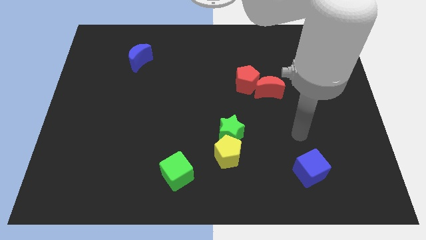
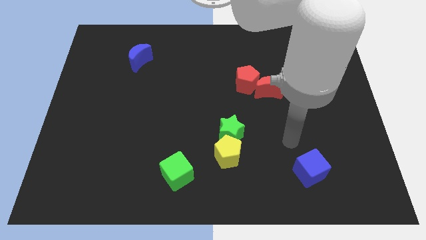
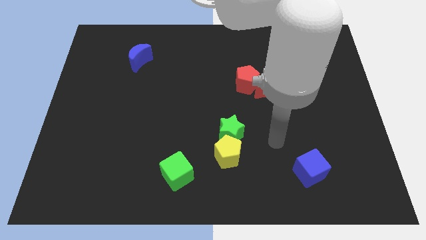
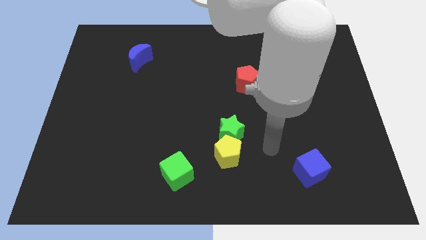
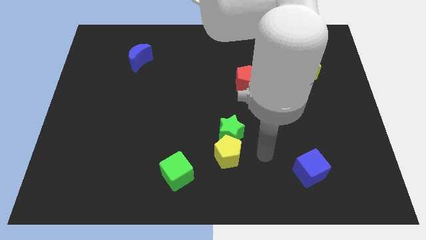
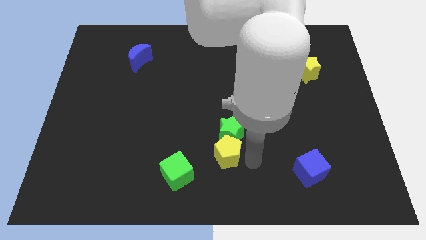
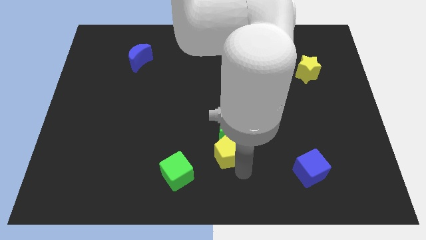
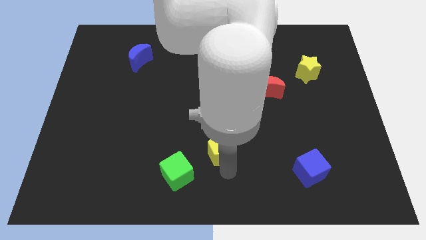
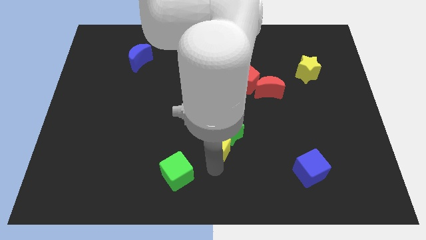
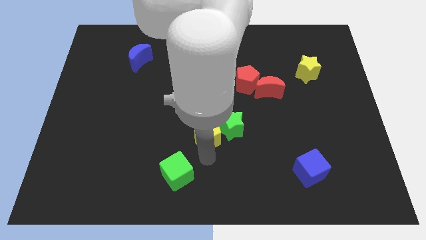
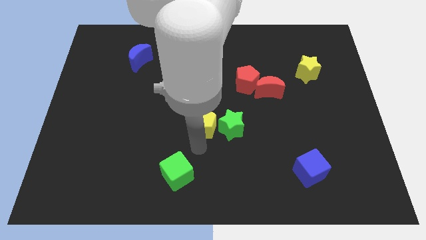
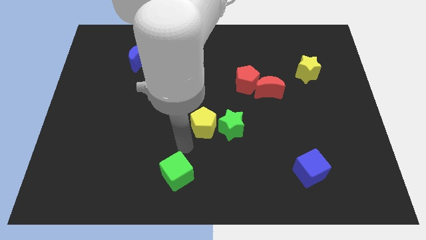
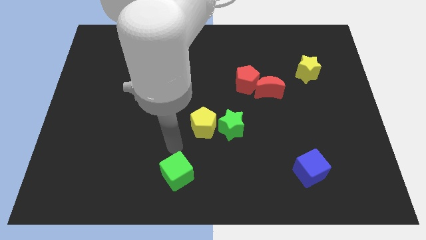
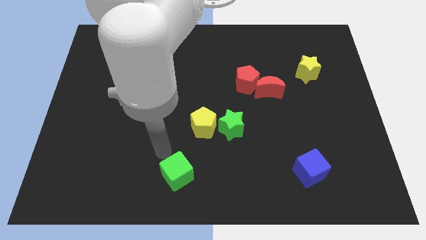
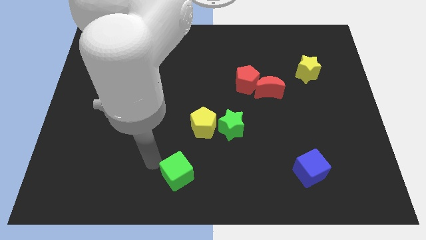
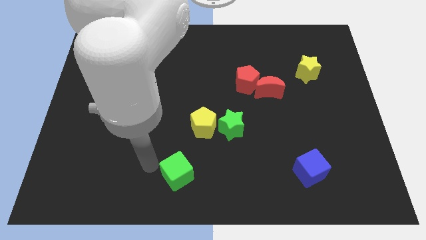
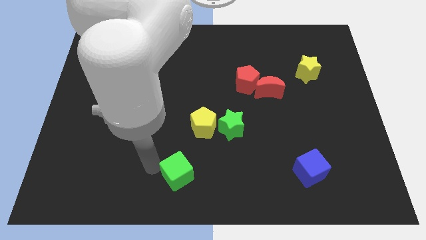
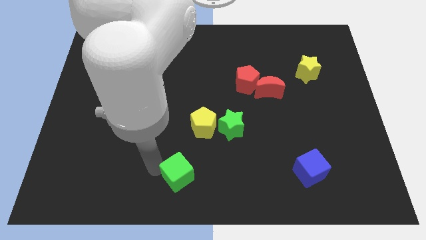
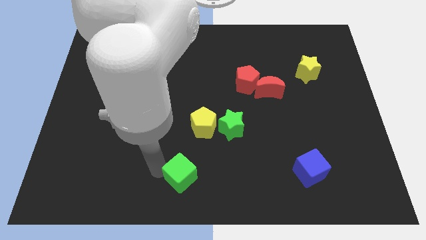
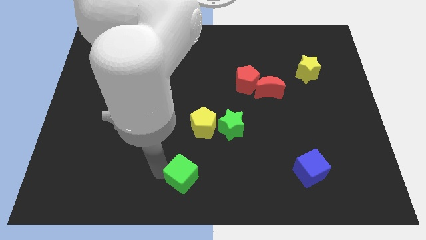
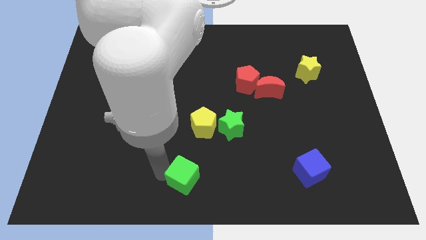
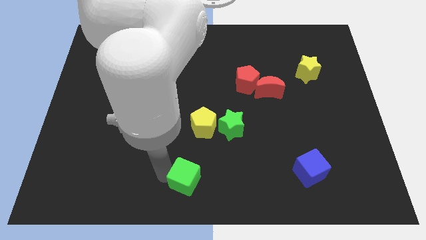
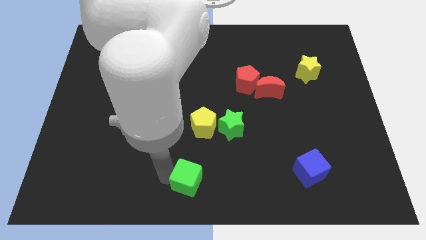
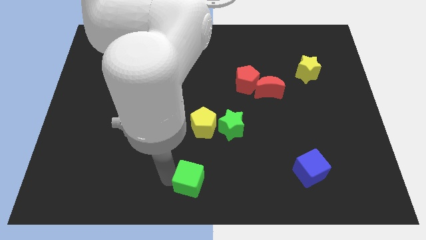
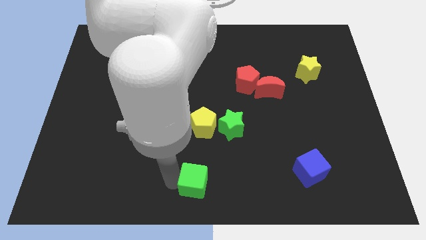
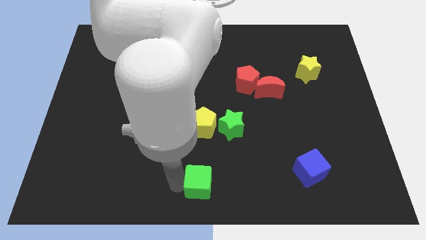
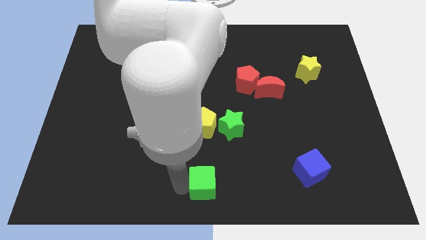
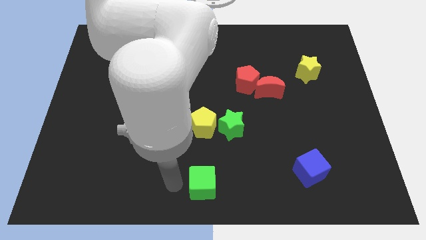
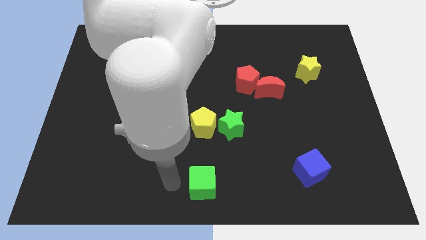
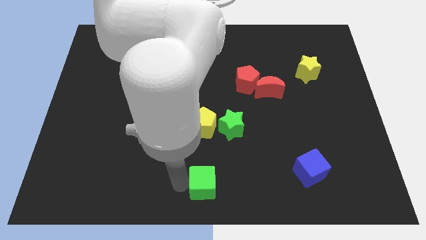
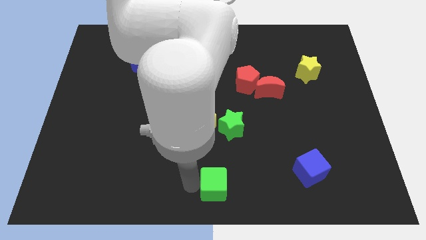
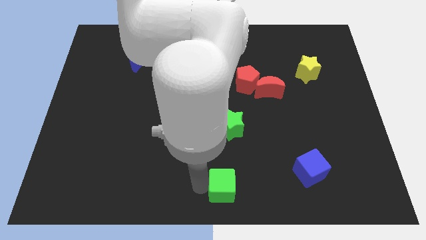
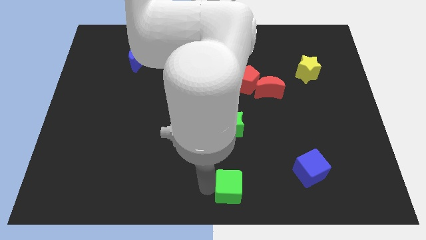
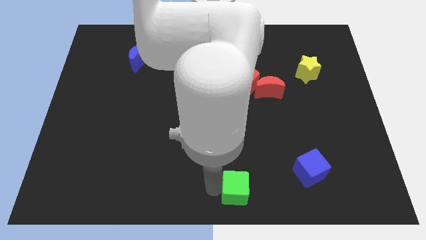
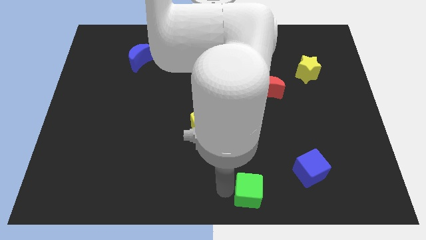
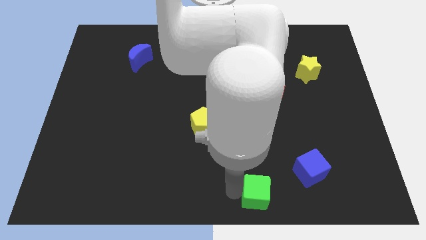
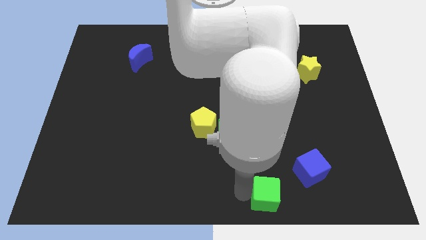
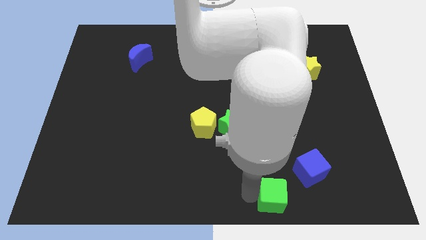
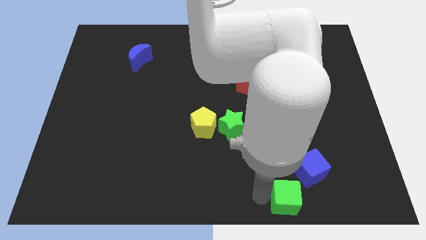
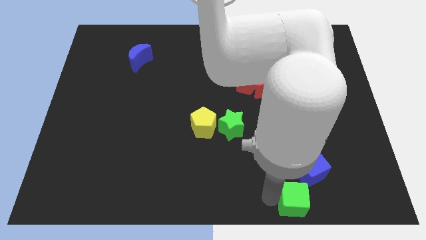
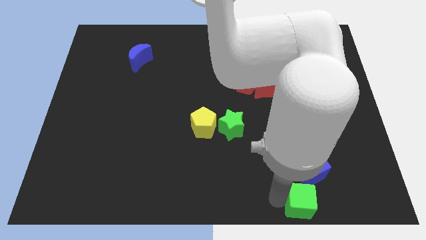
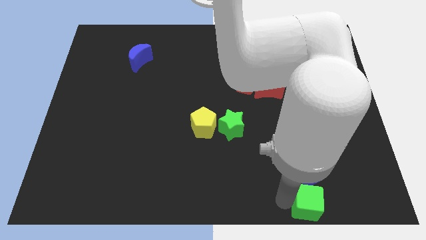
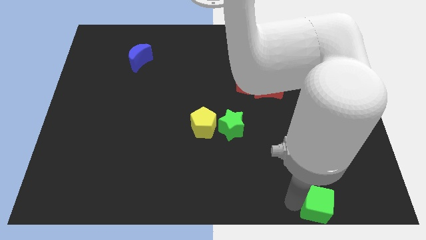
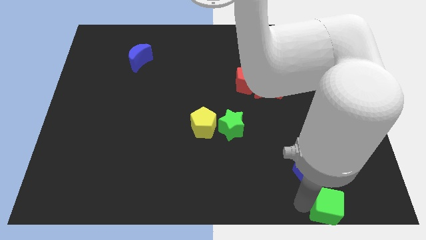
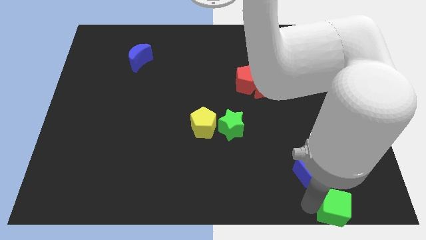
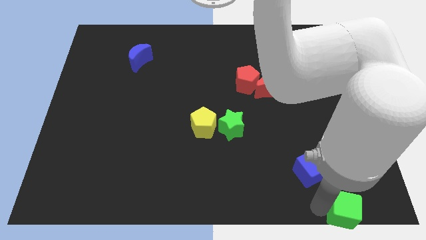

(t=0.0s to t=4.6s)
slide the green cube to the bottom right corner

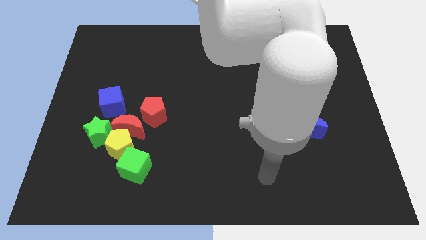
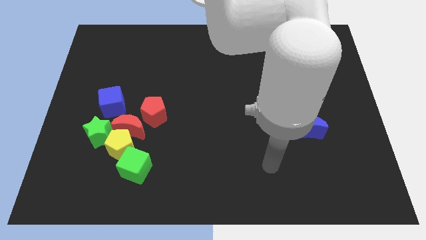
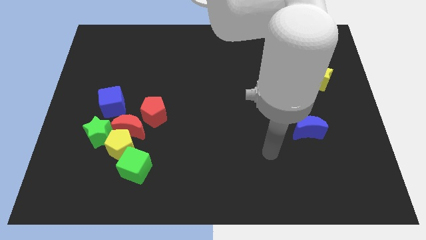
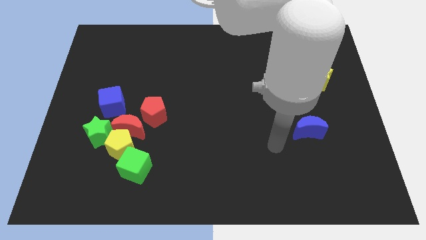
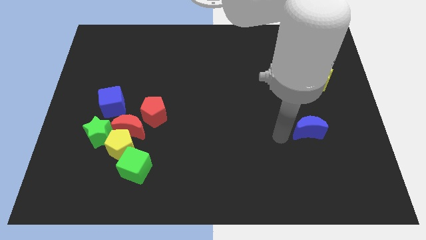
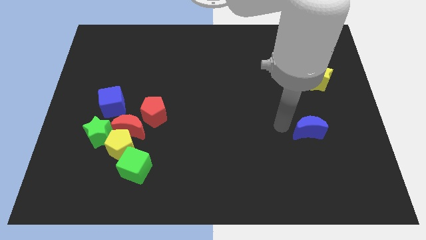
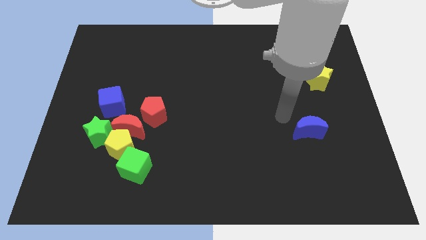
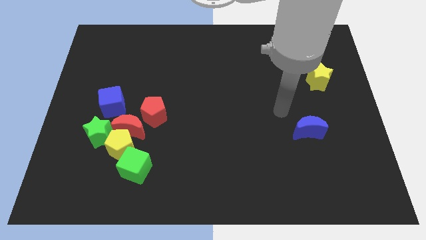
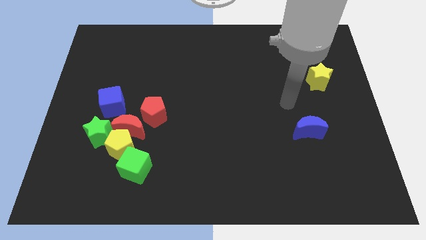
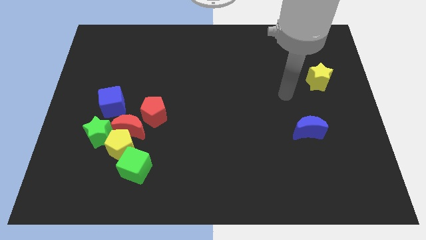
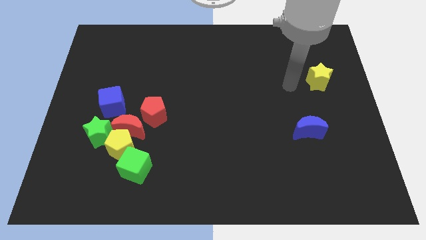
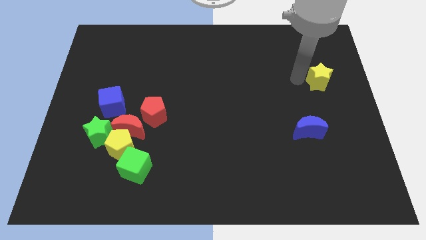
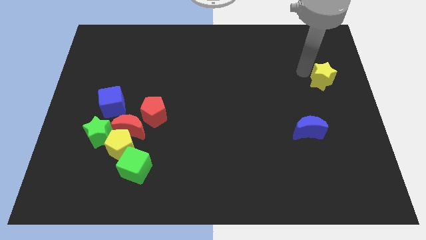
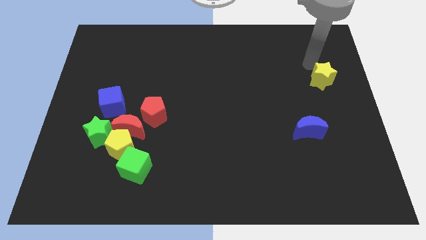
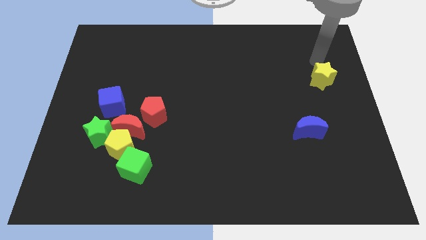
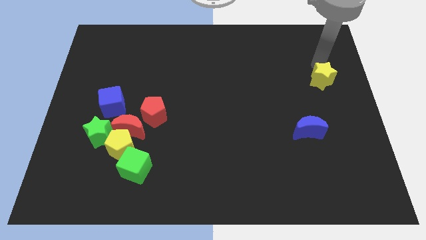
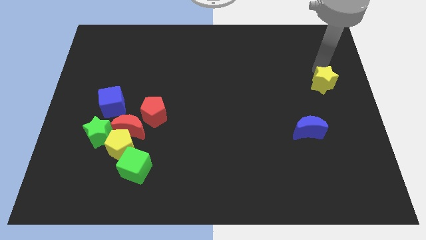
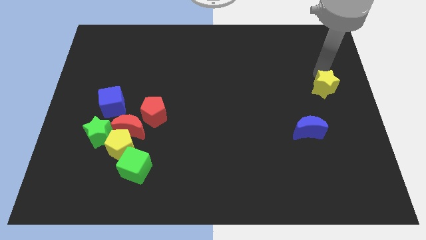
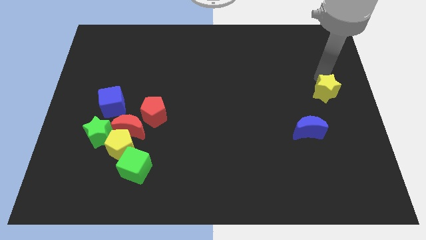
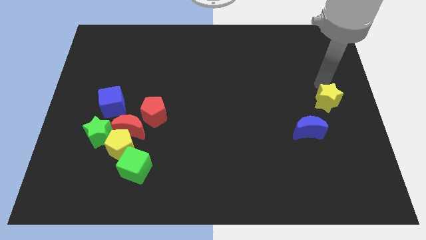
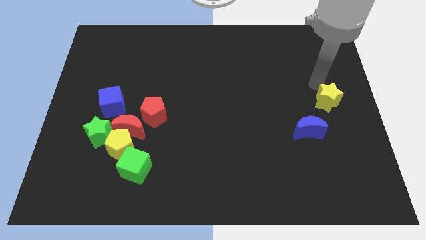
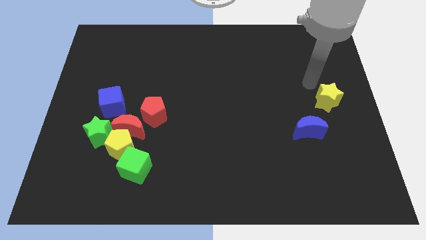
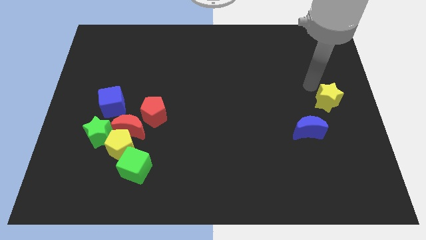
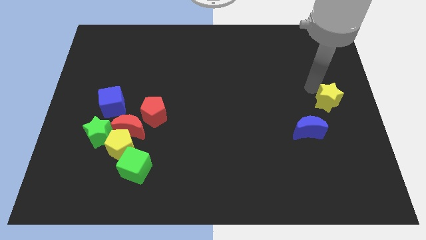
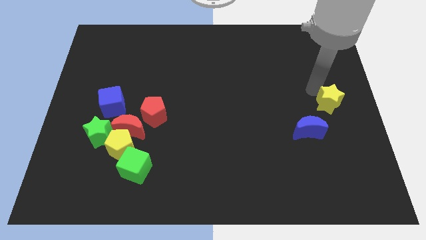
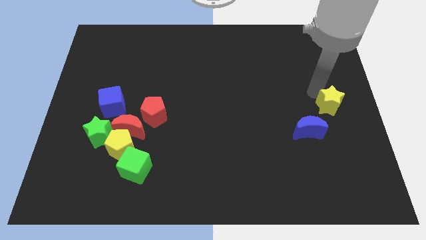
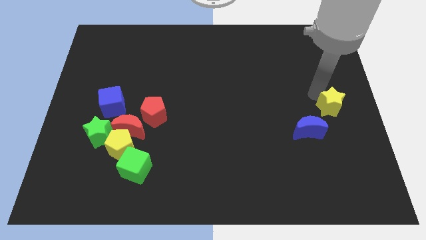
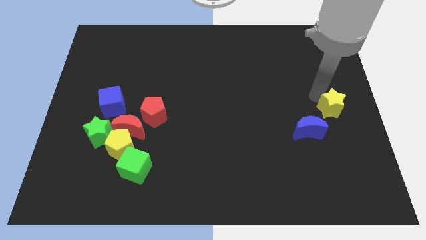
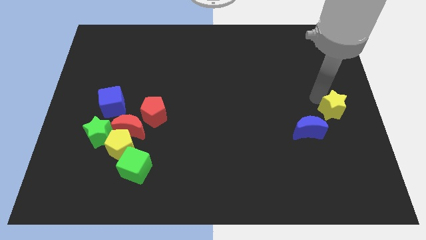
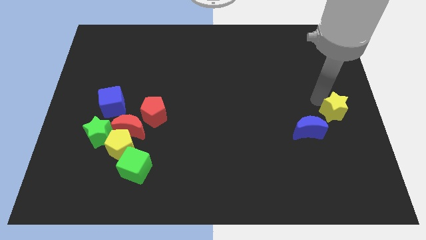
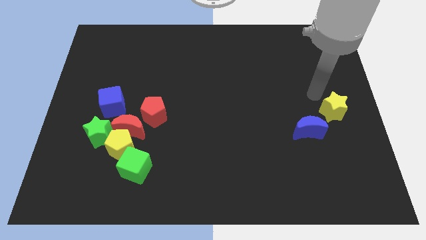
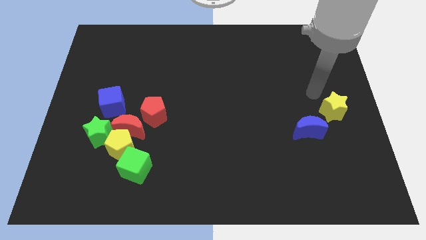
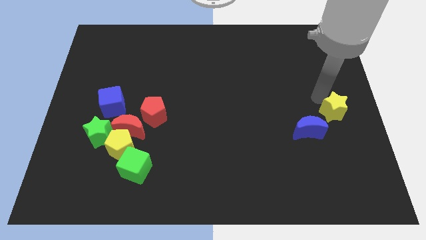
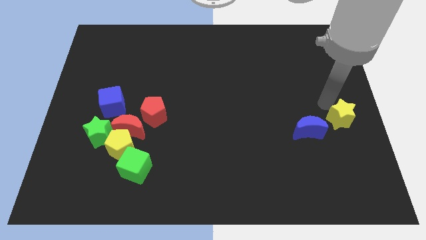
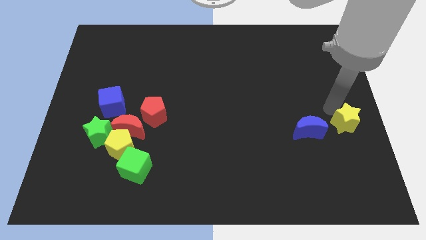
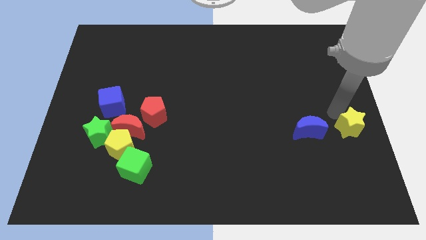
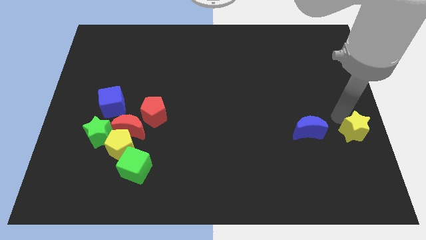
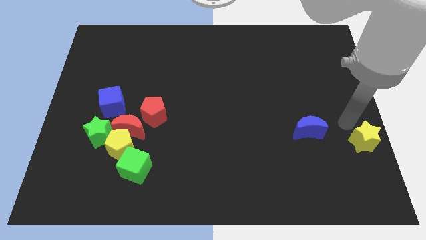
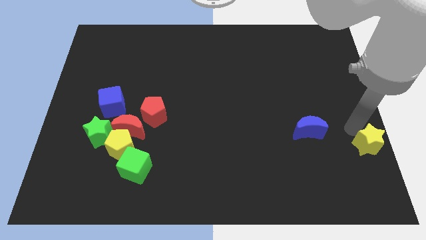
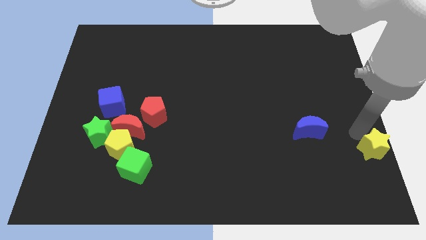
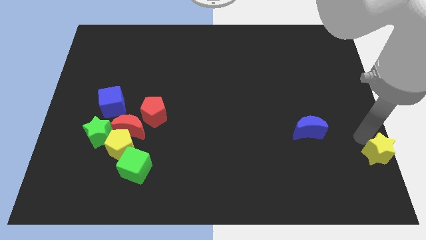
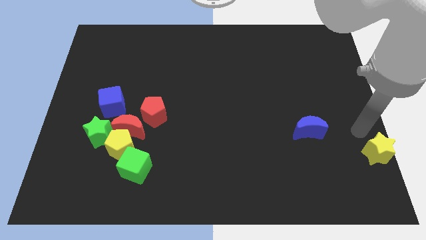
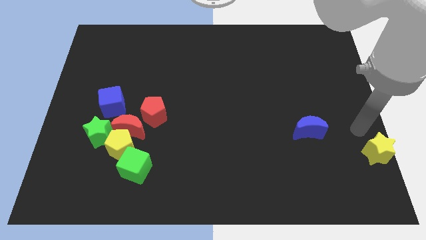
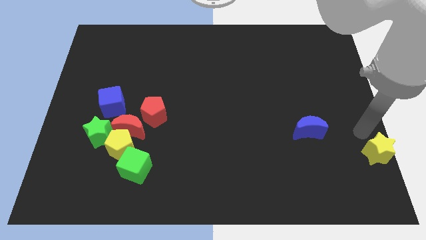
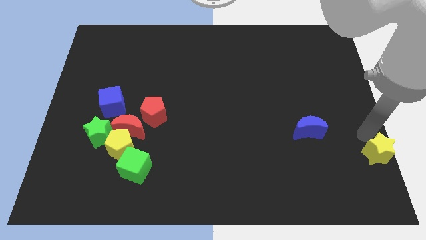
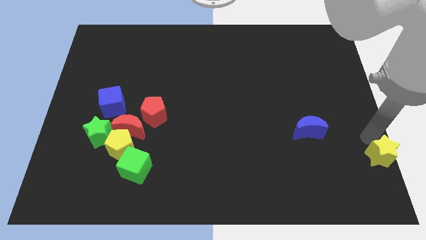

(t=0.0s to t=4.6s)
move the yellow star to the bottom right of the board
